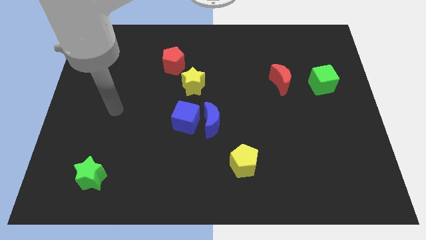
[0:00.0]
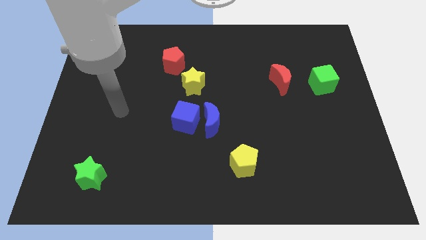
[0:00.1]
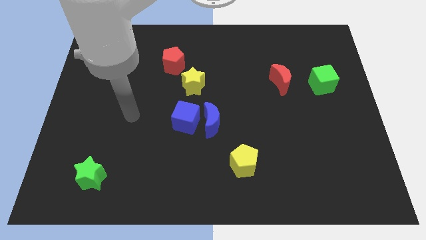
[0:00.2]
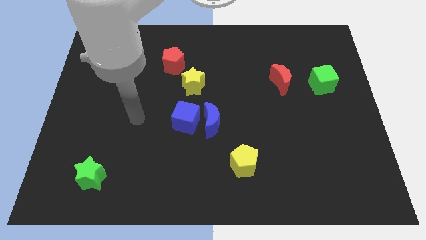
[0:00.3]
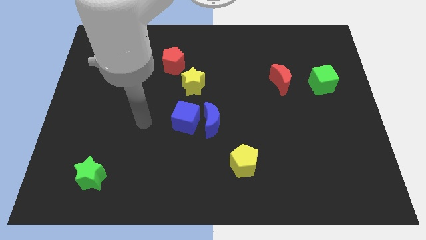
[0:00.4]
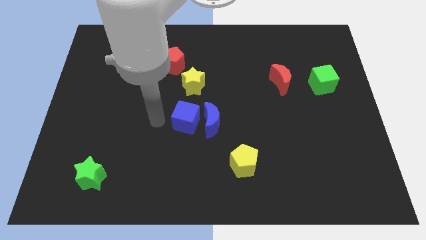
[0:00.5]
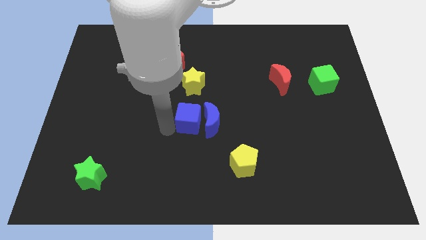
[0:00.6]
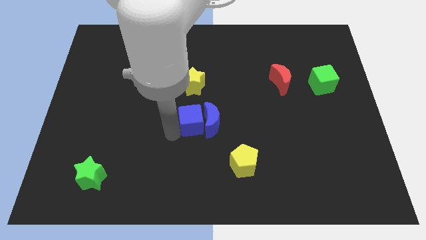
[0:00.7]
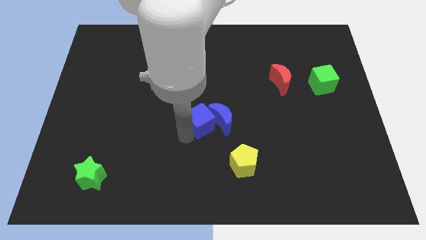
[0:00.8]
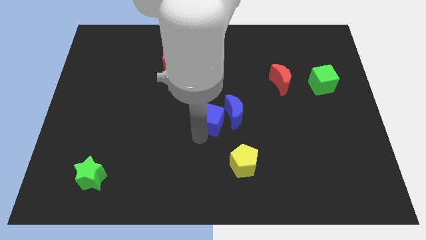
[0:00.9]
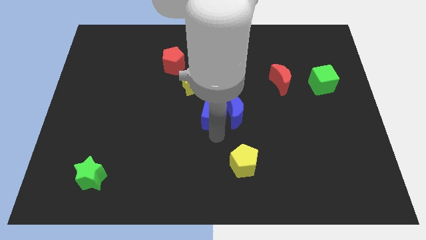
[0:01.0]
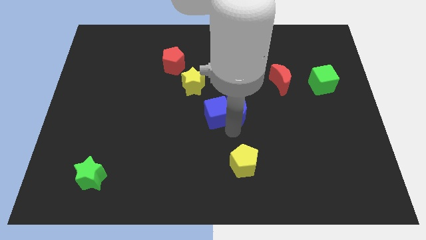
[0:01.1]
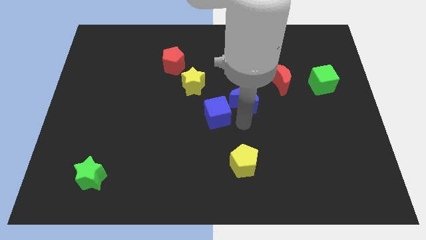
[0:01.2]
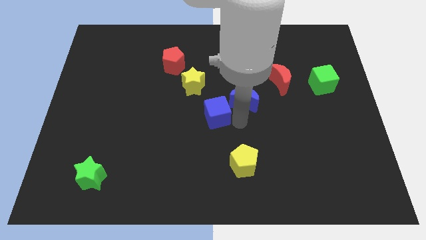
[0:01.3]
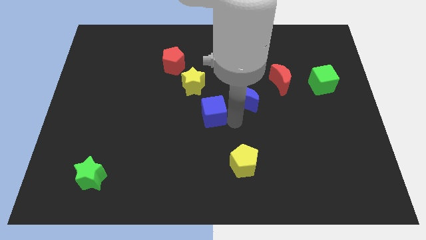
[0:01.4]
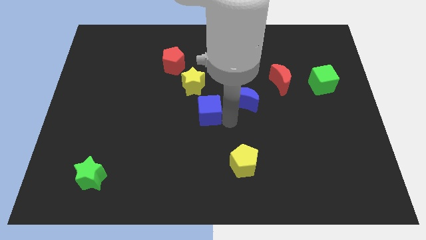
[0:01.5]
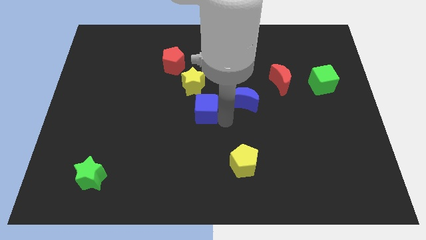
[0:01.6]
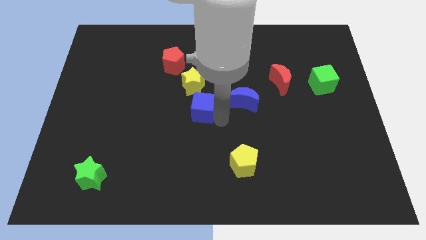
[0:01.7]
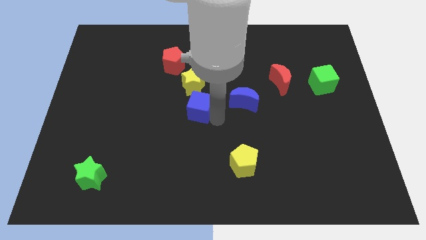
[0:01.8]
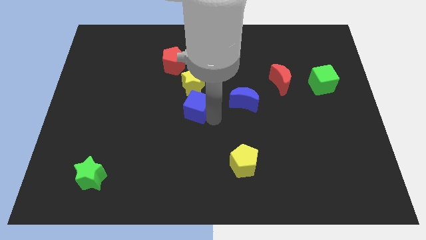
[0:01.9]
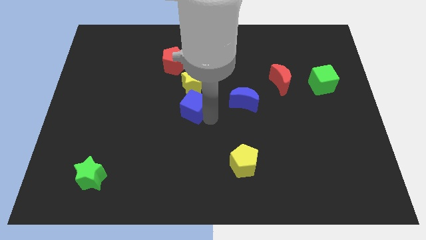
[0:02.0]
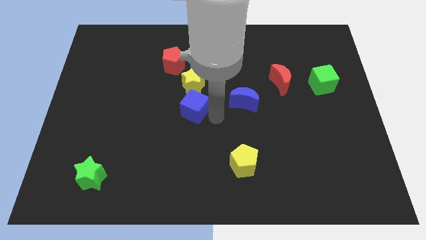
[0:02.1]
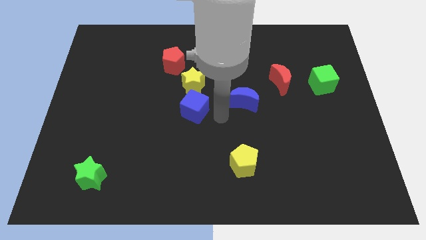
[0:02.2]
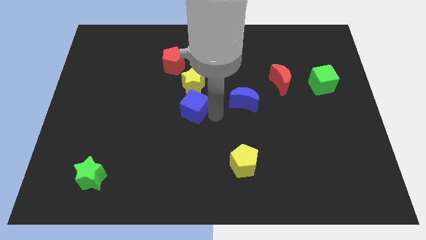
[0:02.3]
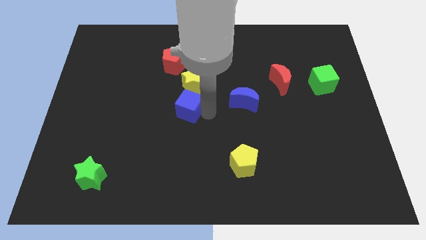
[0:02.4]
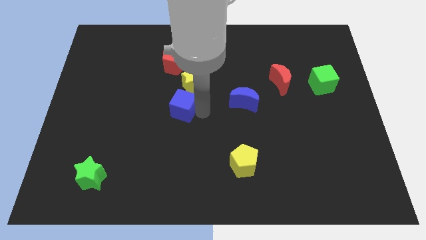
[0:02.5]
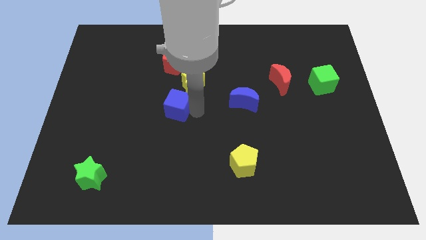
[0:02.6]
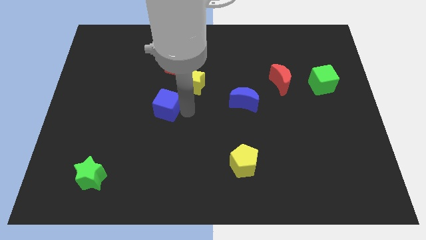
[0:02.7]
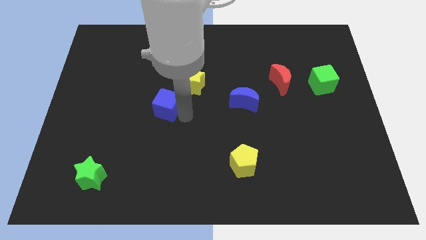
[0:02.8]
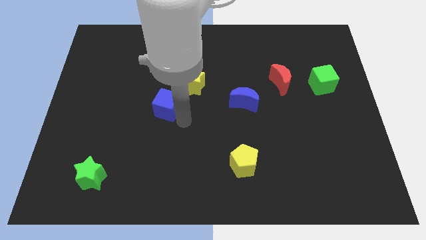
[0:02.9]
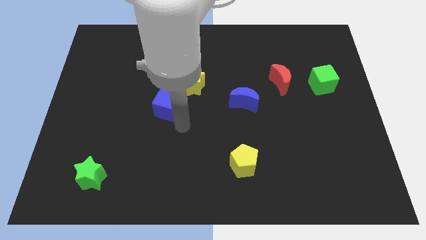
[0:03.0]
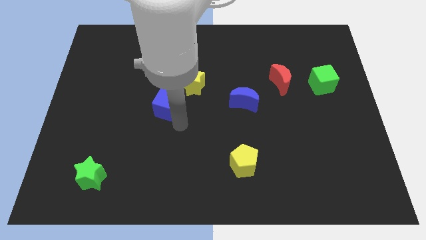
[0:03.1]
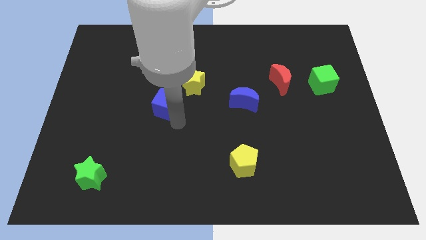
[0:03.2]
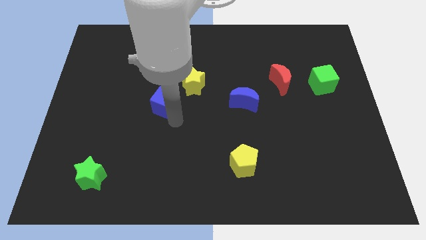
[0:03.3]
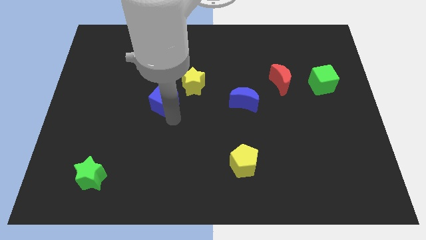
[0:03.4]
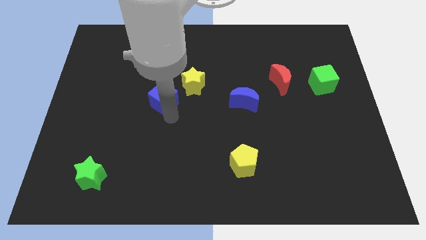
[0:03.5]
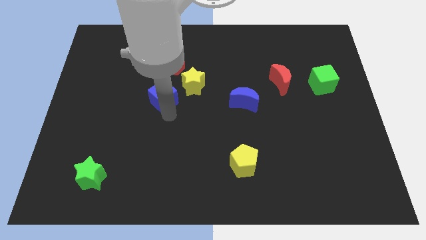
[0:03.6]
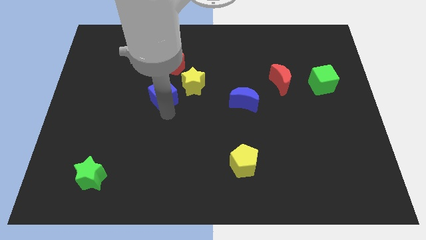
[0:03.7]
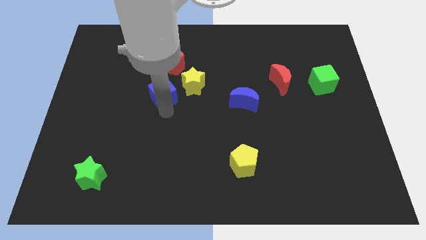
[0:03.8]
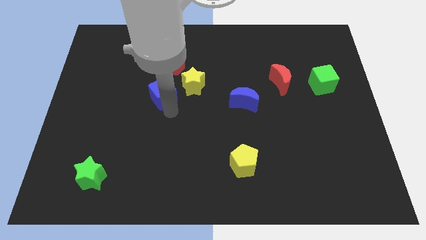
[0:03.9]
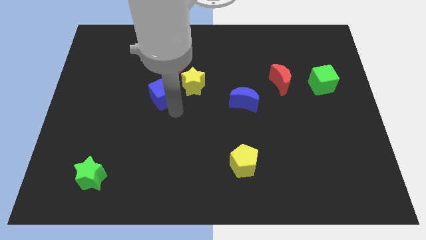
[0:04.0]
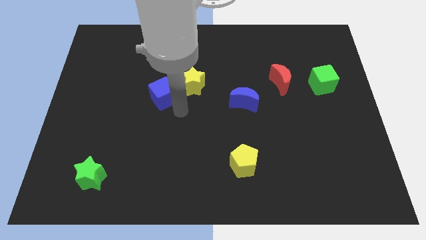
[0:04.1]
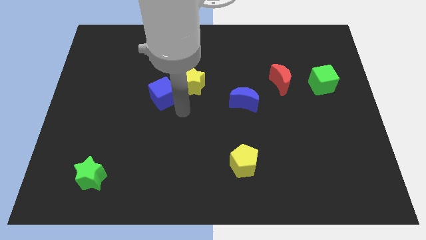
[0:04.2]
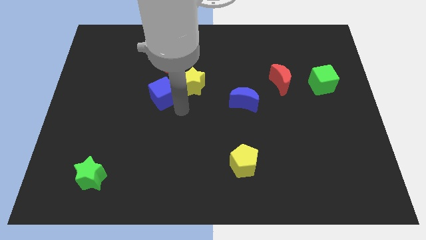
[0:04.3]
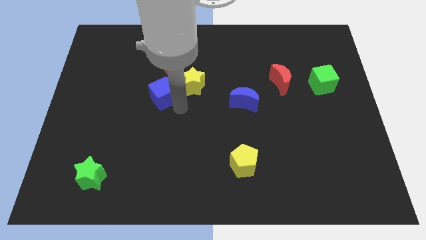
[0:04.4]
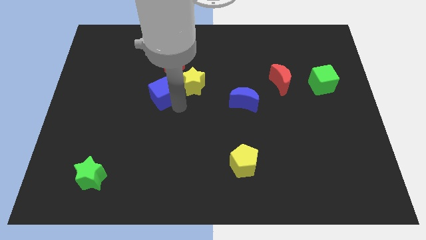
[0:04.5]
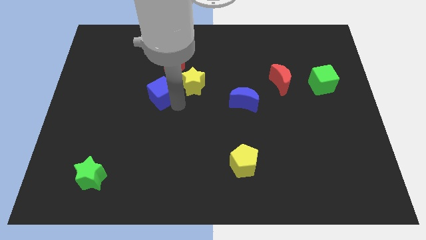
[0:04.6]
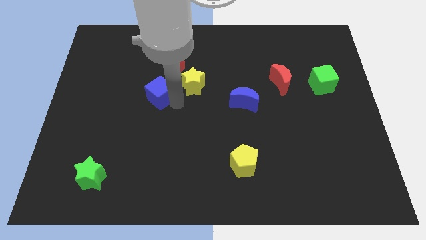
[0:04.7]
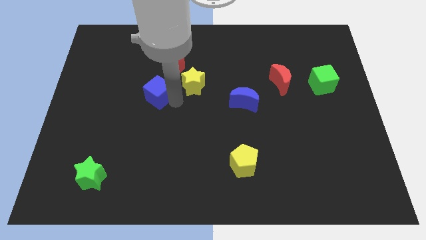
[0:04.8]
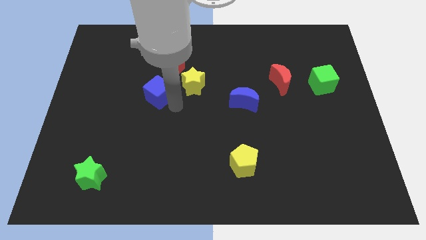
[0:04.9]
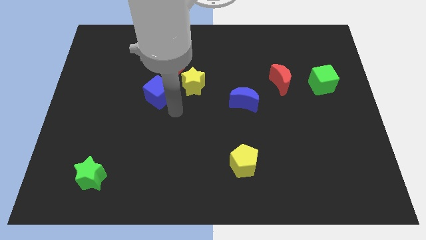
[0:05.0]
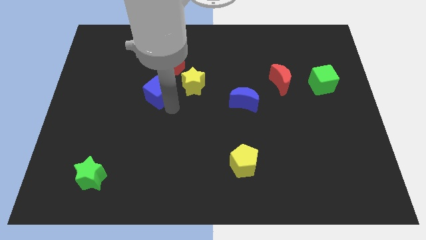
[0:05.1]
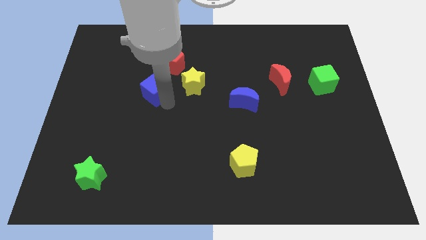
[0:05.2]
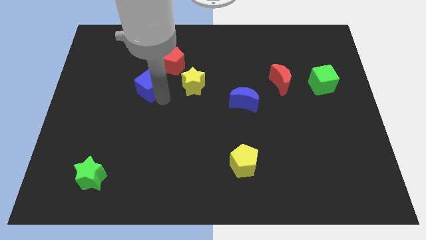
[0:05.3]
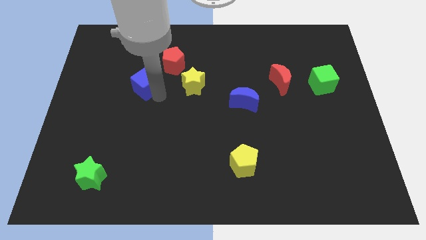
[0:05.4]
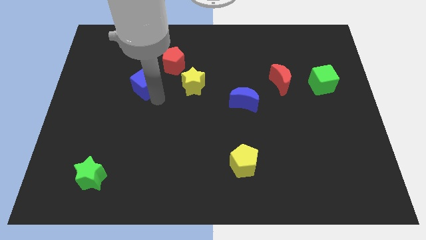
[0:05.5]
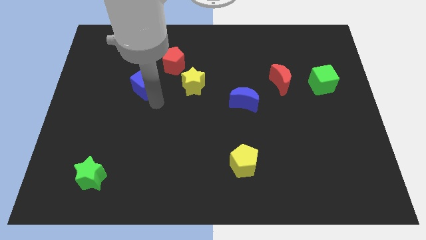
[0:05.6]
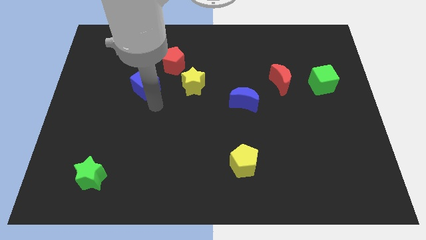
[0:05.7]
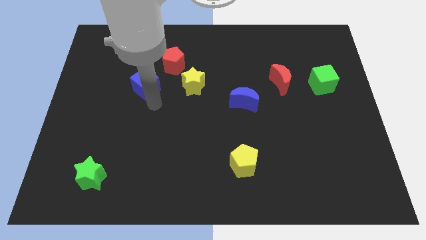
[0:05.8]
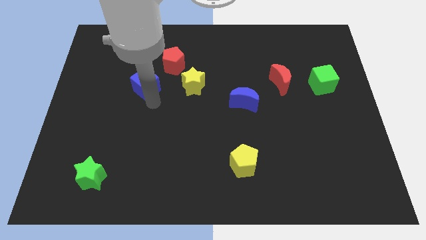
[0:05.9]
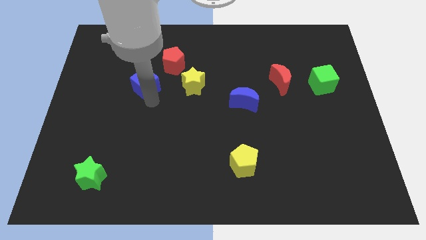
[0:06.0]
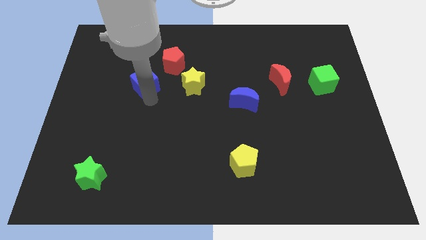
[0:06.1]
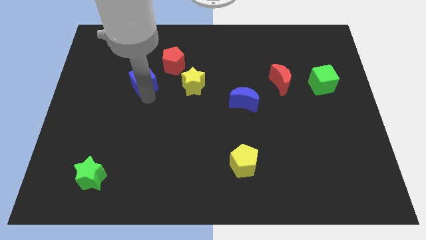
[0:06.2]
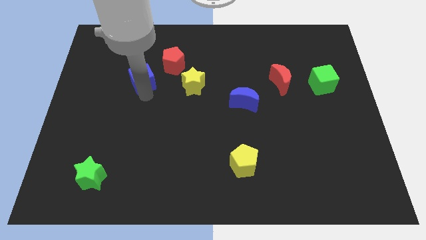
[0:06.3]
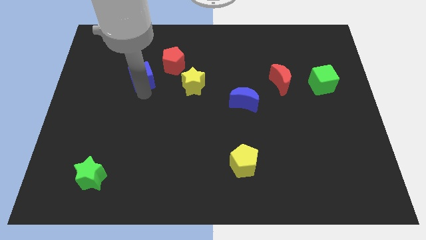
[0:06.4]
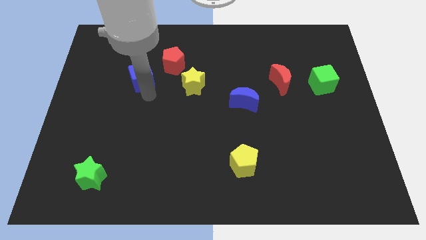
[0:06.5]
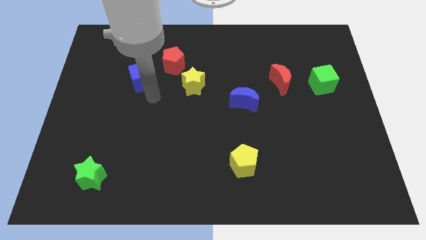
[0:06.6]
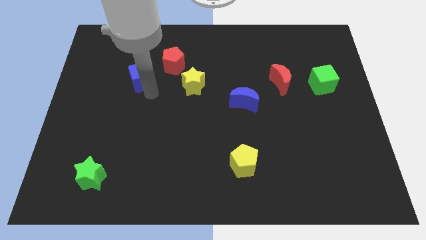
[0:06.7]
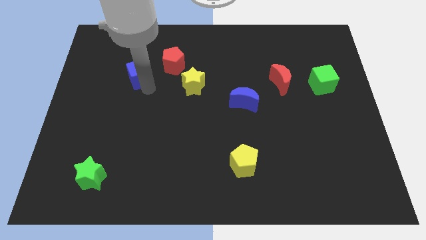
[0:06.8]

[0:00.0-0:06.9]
slide the blue cube to the left of the red pentagon
